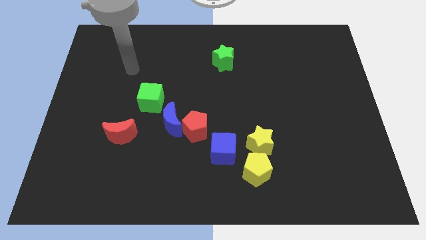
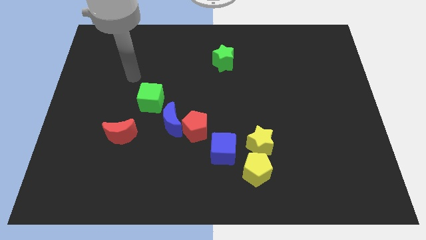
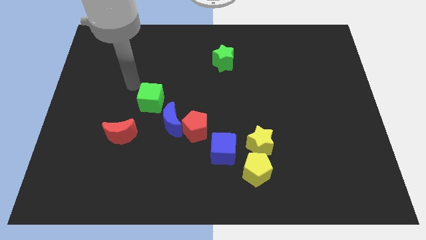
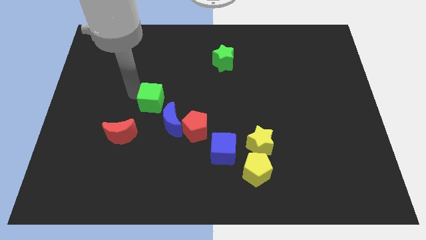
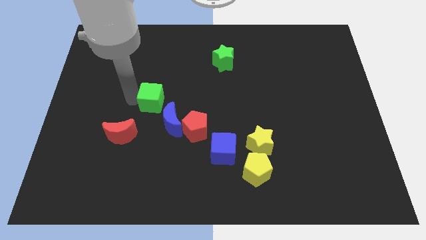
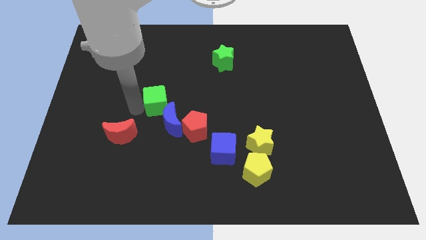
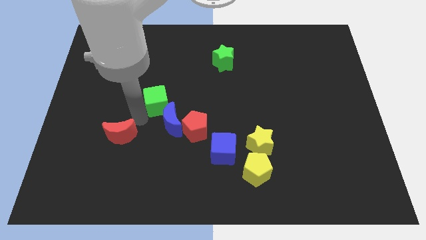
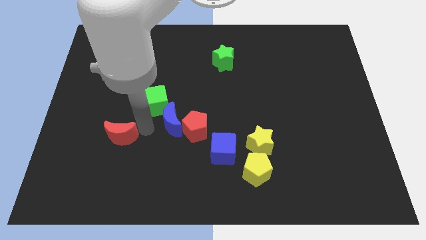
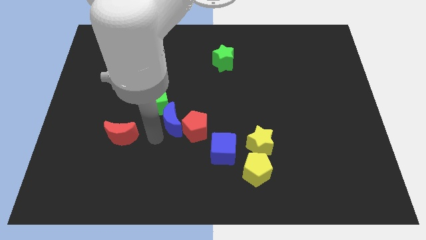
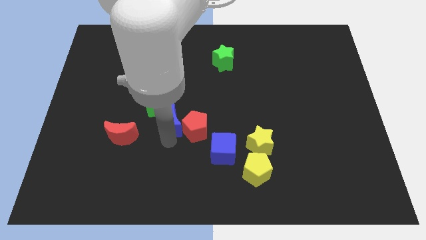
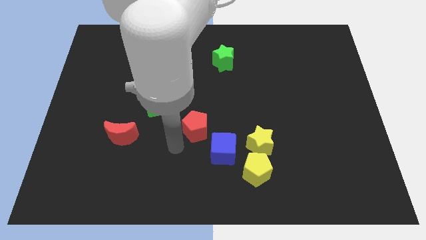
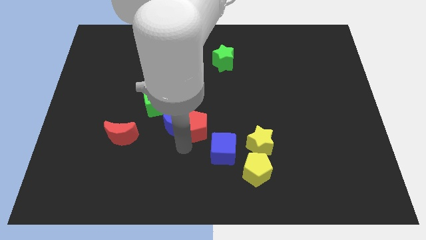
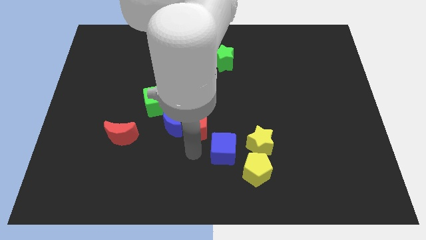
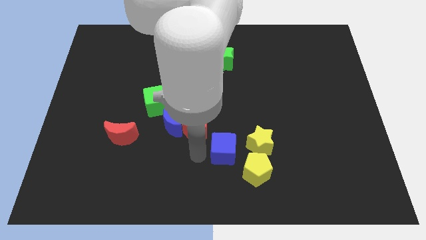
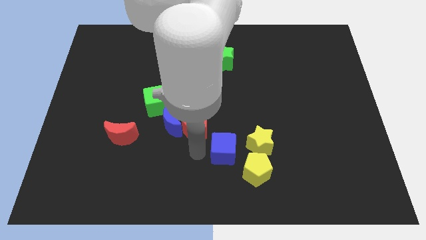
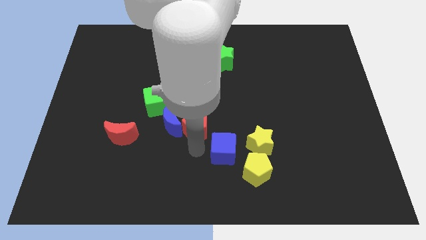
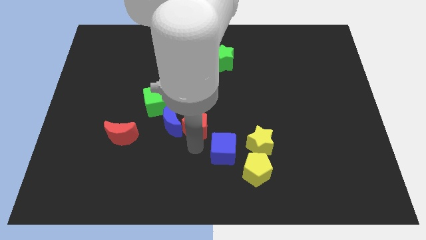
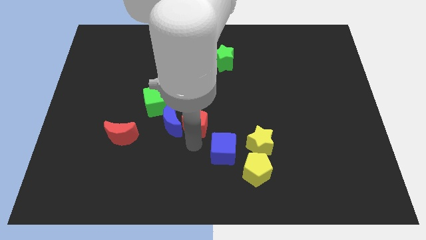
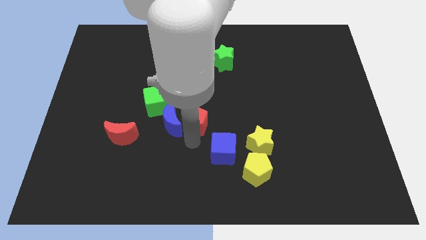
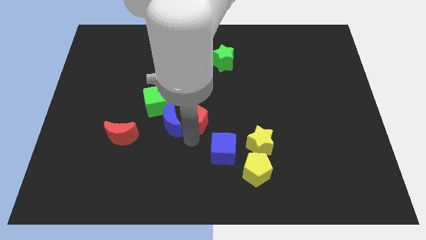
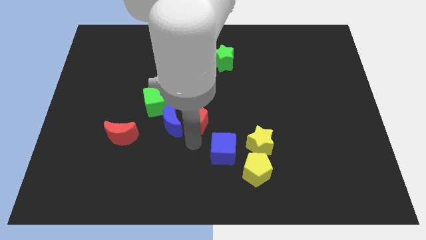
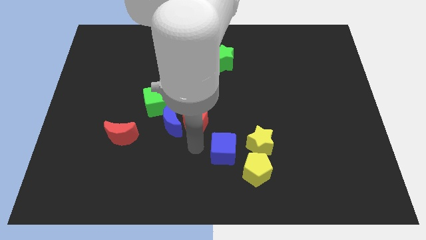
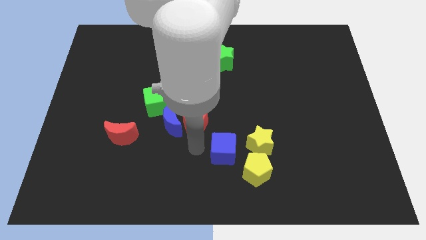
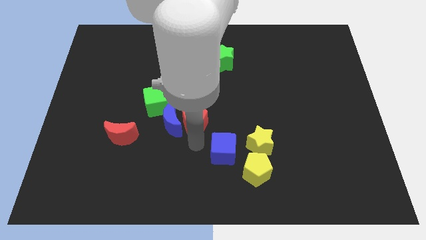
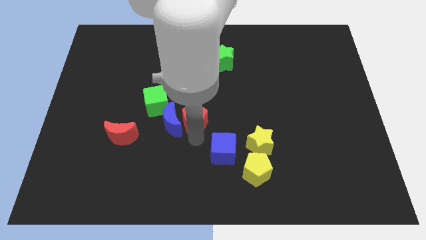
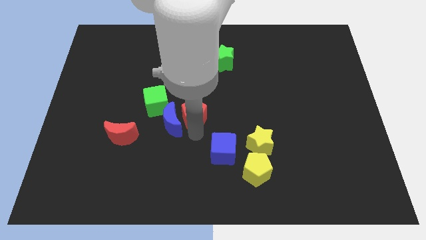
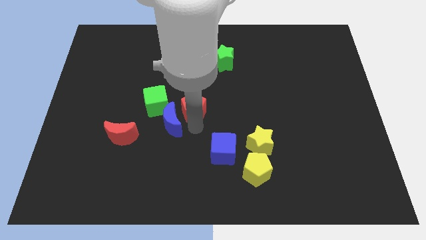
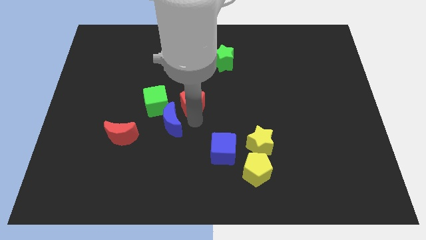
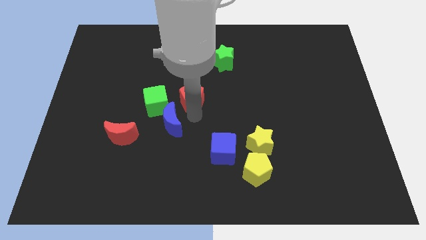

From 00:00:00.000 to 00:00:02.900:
move the red pentagon away from the blue moon and blue cube

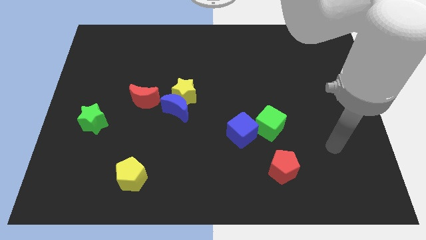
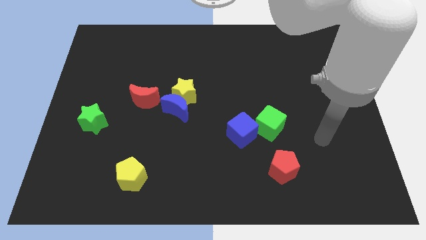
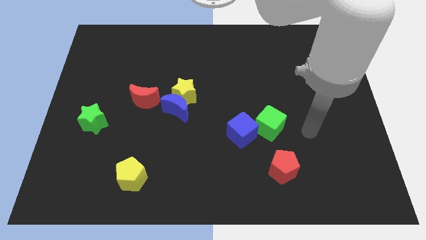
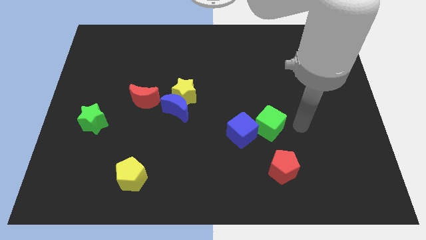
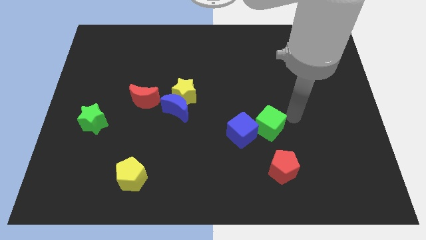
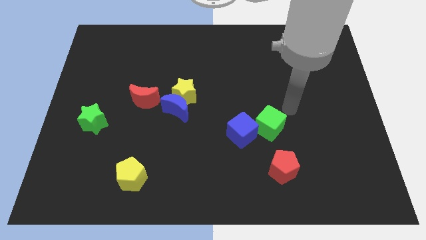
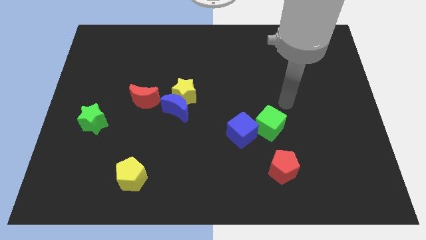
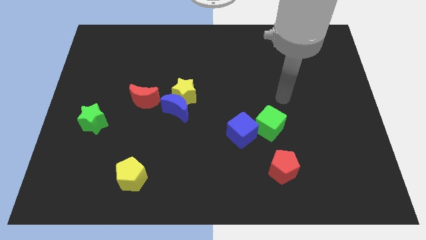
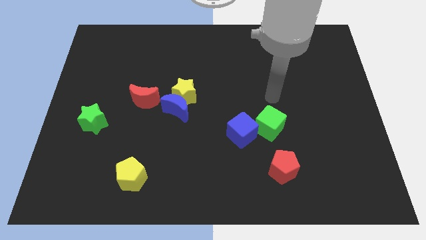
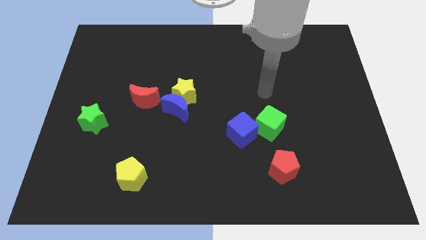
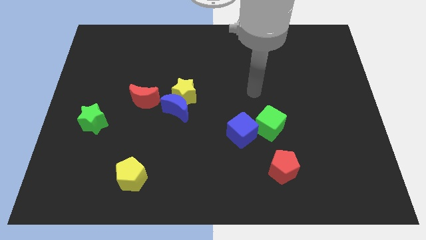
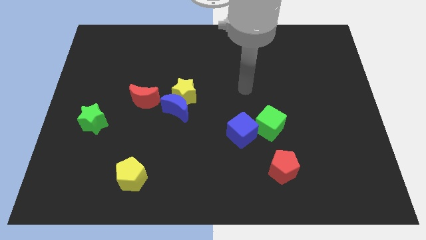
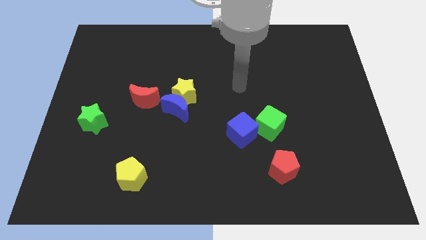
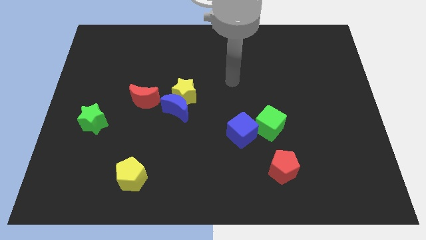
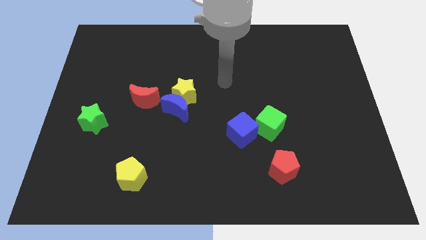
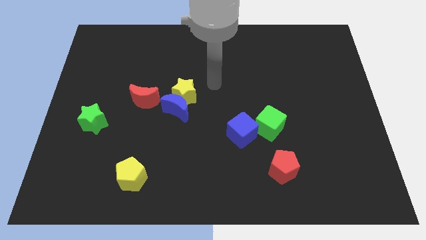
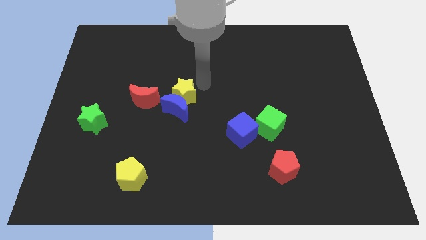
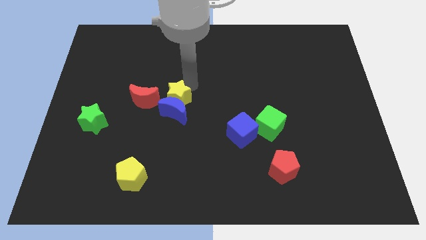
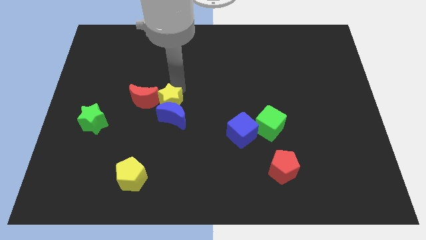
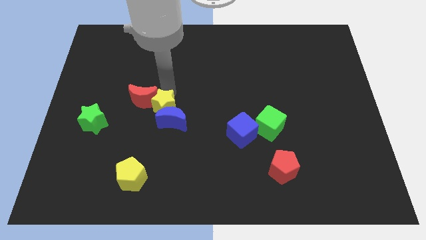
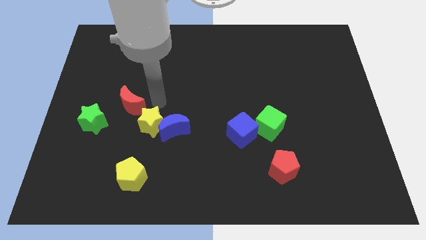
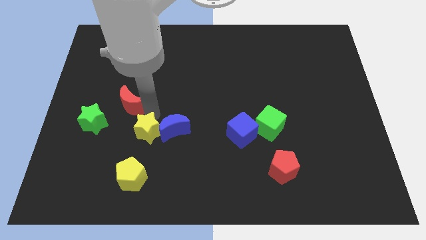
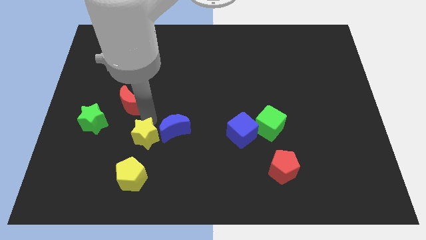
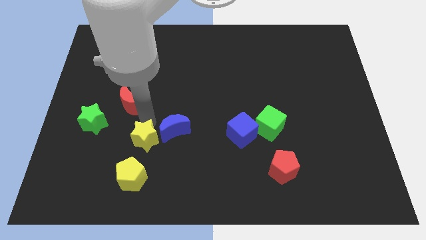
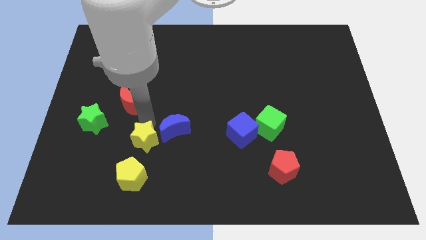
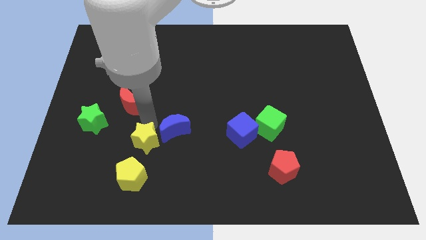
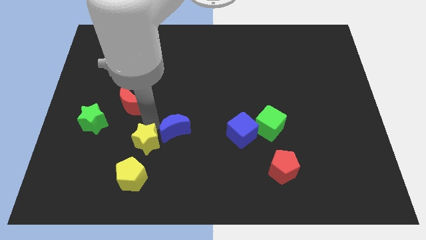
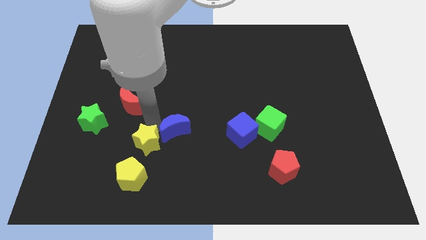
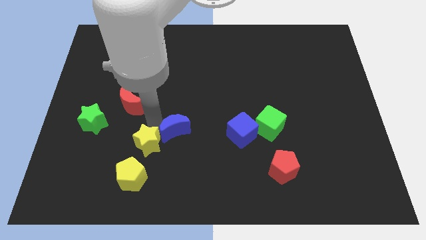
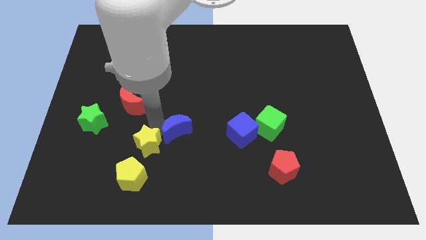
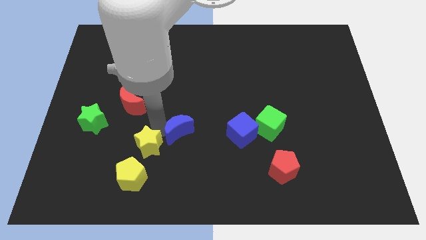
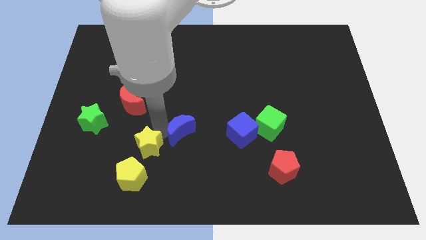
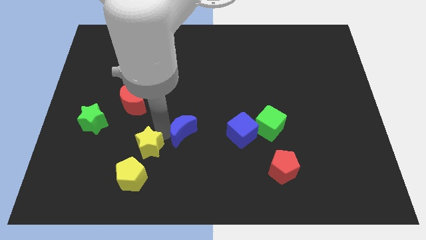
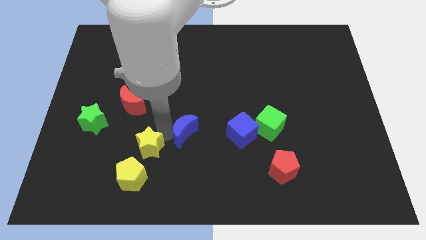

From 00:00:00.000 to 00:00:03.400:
pull the blue moon apart from the yellow star and red moon

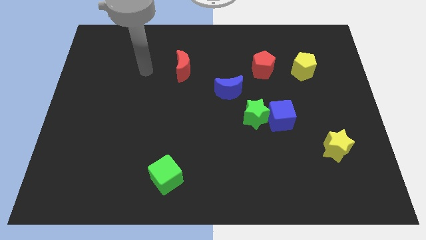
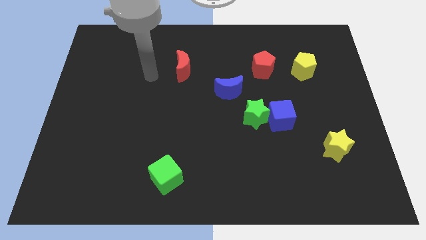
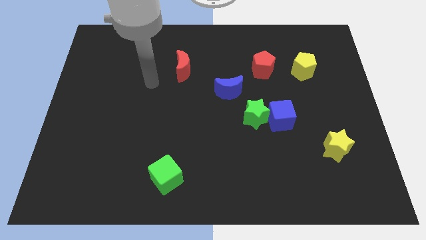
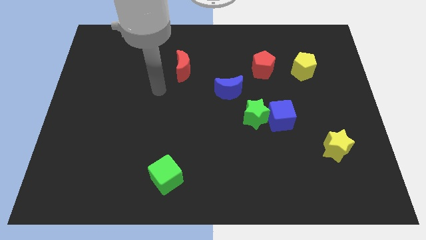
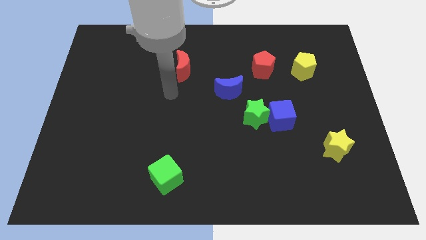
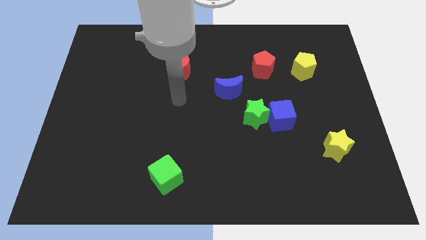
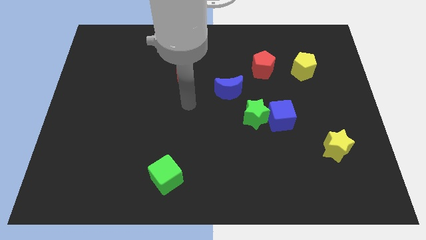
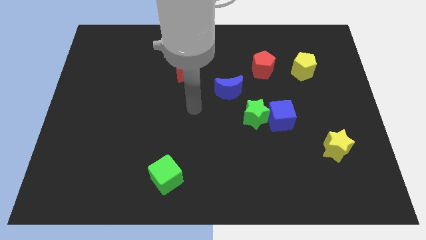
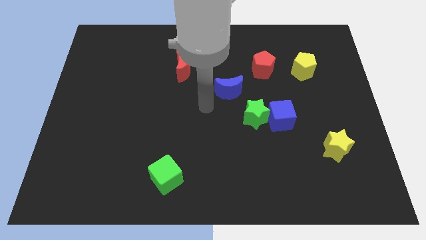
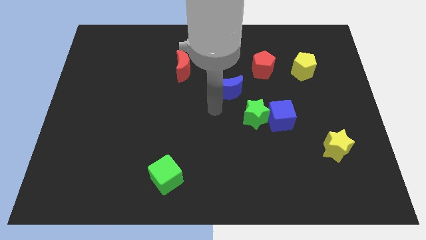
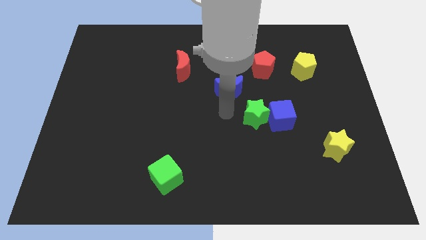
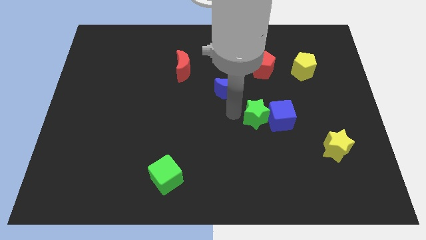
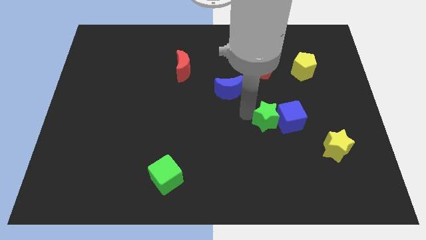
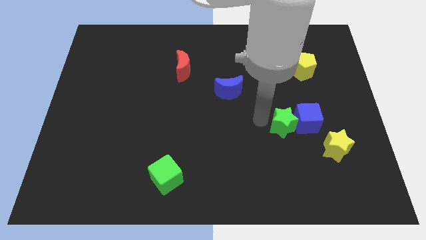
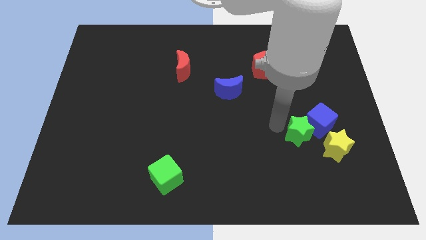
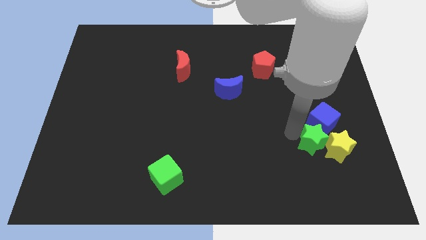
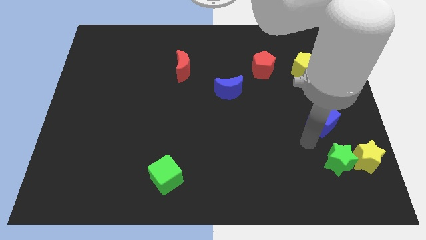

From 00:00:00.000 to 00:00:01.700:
pull the blue cube apart from the green star

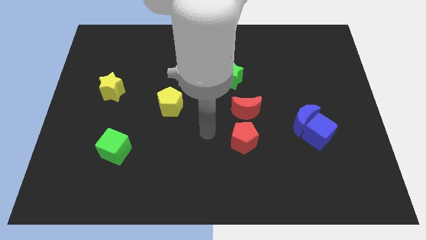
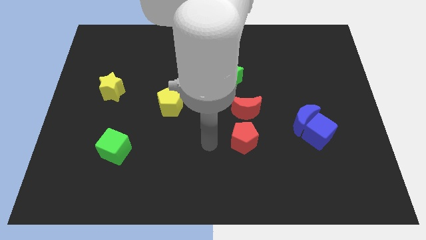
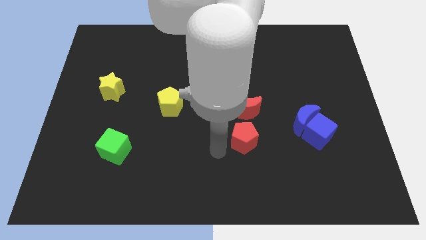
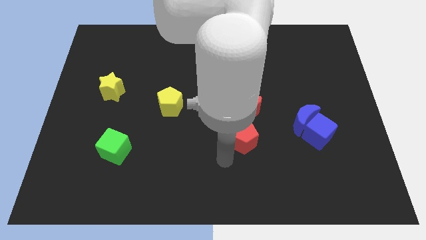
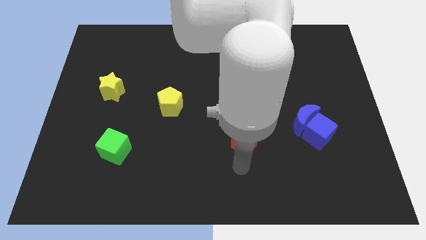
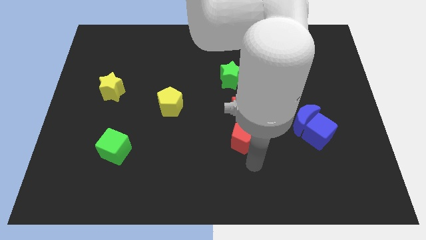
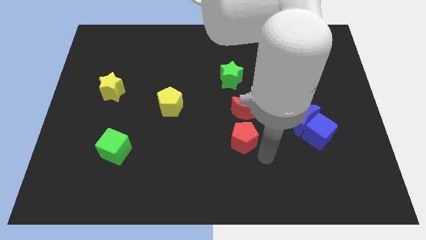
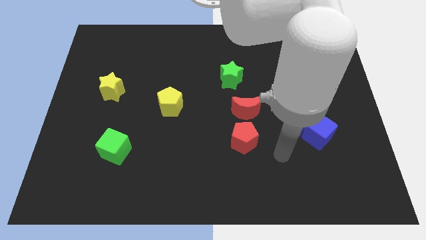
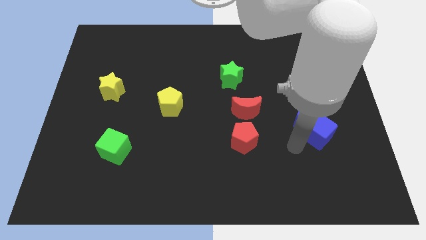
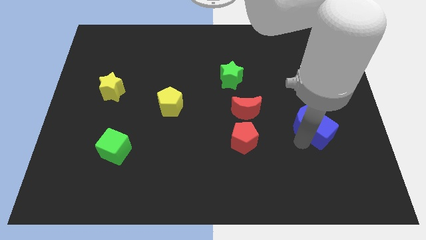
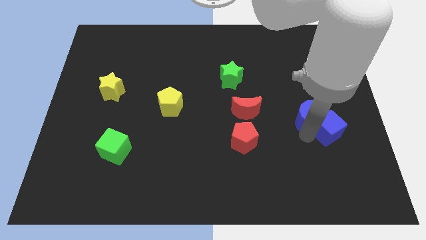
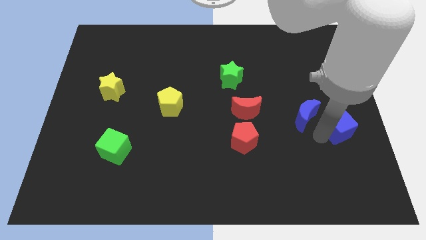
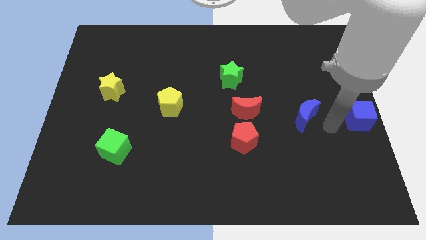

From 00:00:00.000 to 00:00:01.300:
separate the blue moon from the blue cube

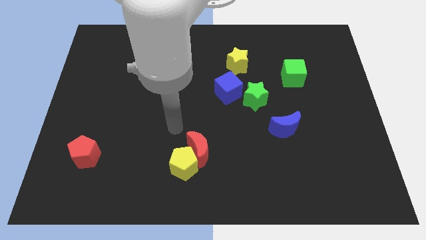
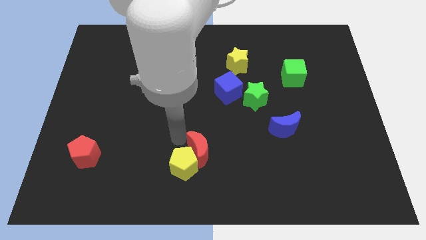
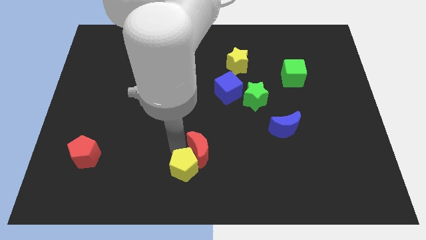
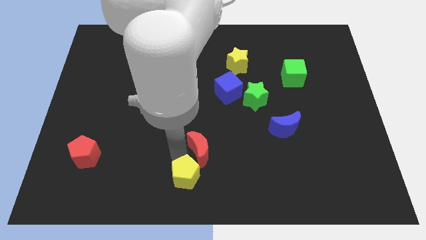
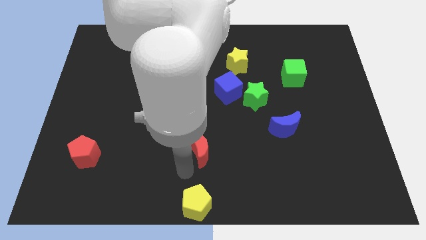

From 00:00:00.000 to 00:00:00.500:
move the red moon away from the yellow pentagon
